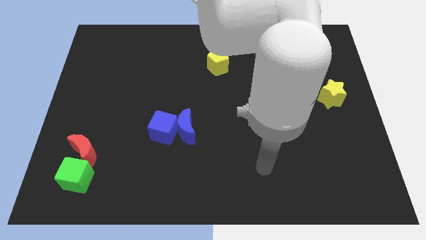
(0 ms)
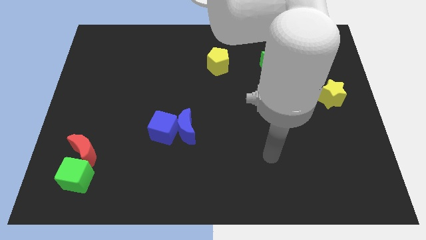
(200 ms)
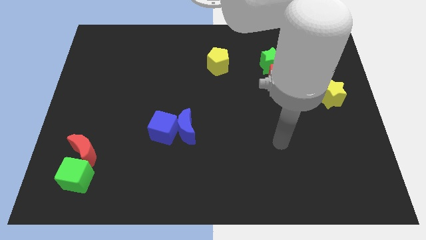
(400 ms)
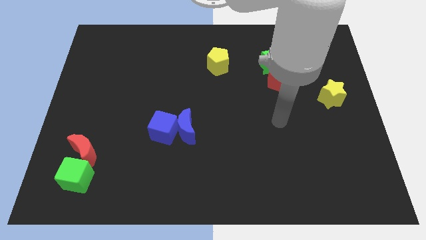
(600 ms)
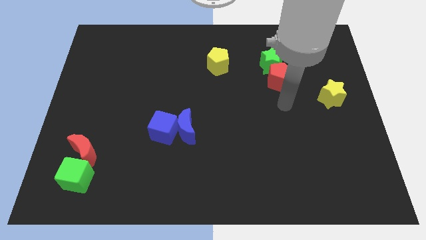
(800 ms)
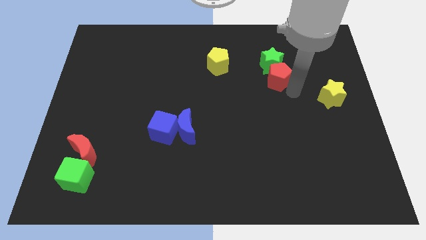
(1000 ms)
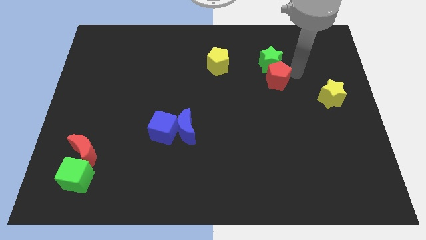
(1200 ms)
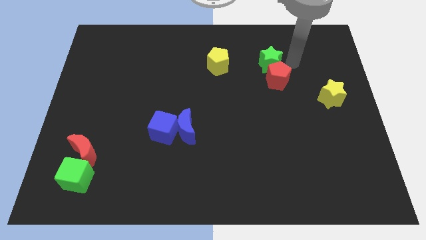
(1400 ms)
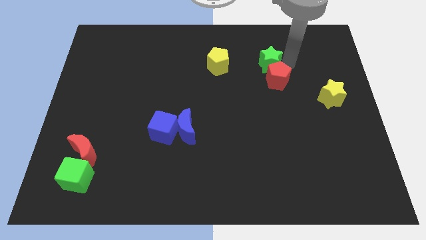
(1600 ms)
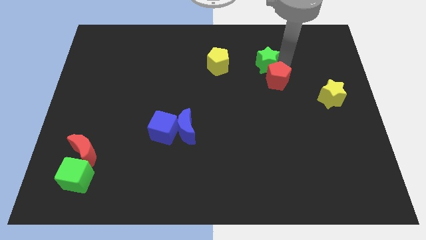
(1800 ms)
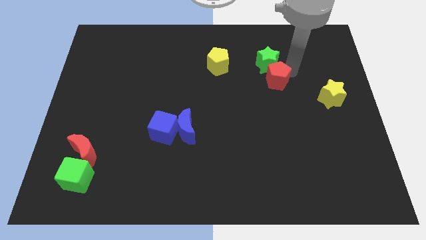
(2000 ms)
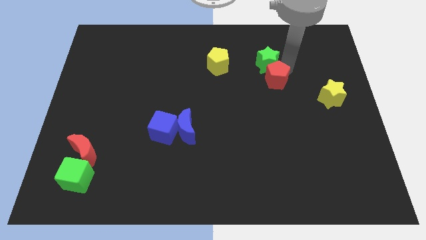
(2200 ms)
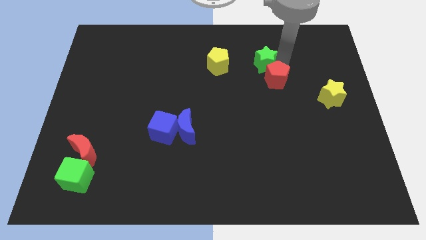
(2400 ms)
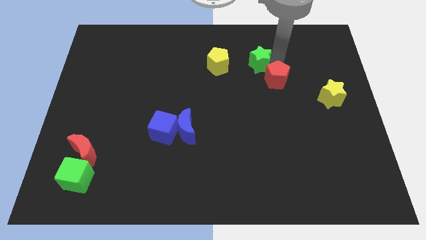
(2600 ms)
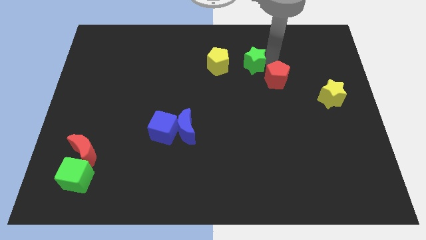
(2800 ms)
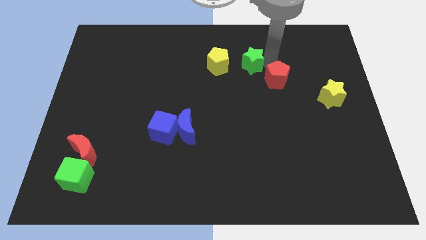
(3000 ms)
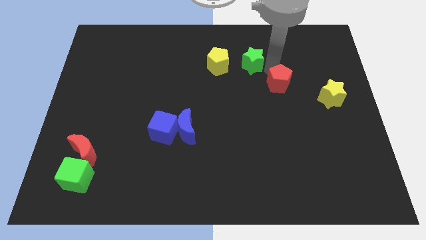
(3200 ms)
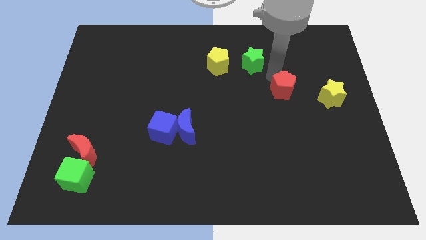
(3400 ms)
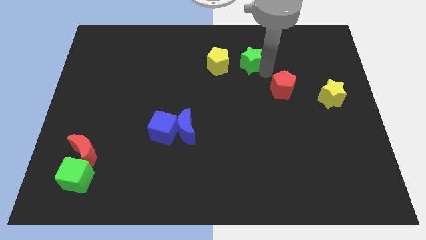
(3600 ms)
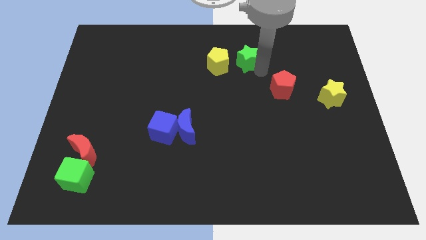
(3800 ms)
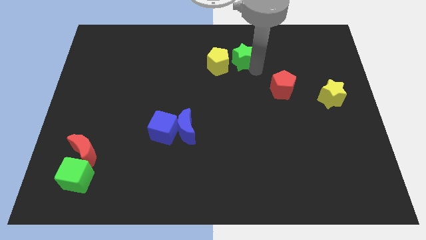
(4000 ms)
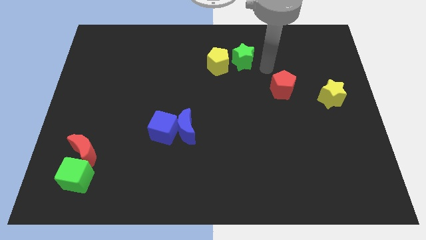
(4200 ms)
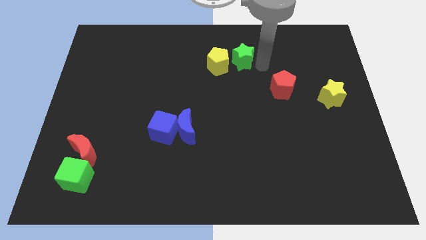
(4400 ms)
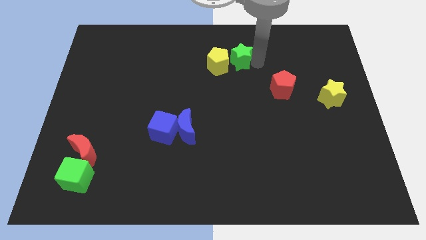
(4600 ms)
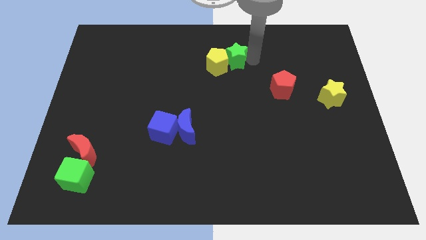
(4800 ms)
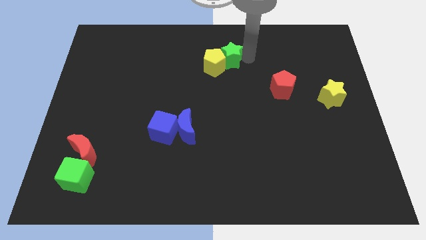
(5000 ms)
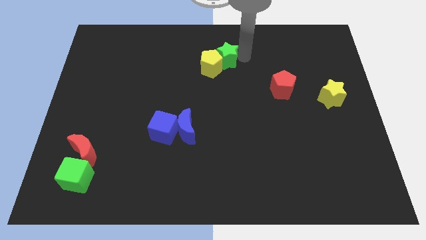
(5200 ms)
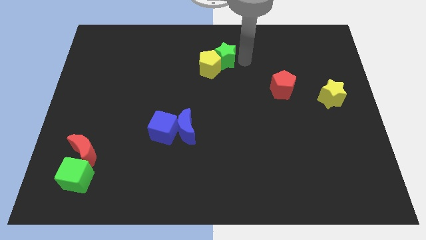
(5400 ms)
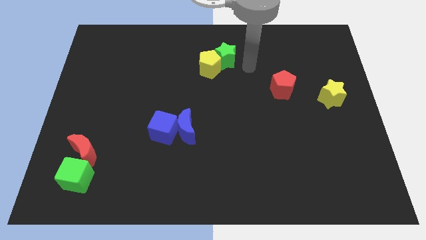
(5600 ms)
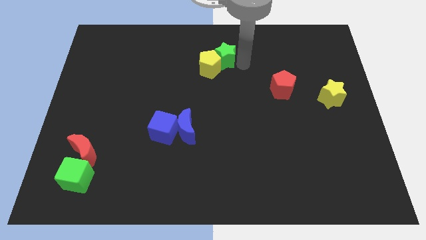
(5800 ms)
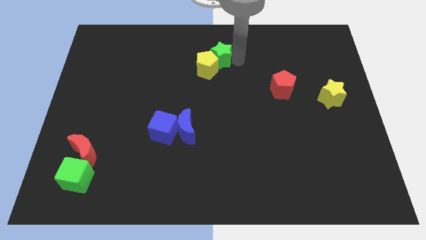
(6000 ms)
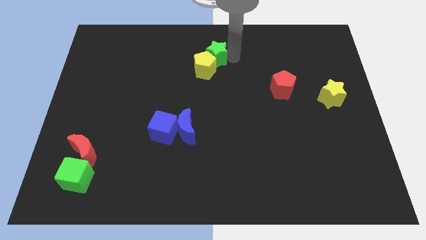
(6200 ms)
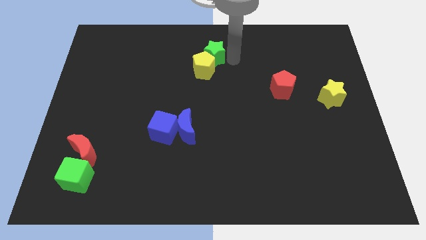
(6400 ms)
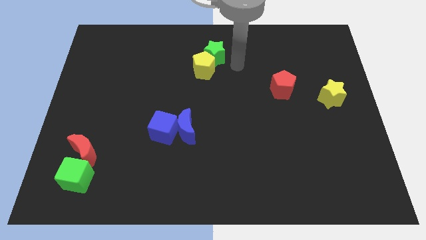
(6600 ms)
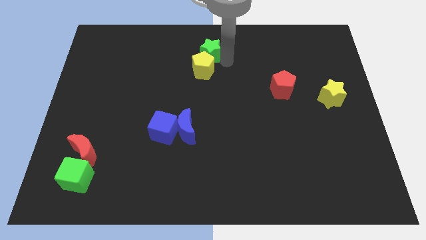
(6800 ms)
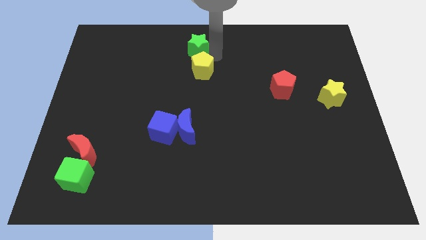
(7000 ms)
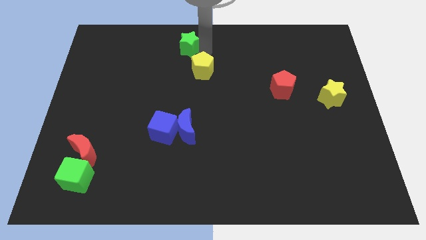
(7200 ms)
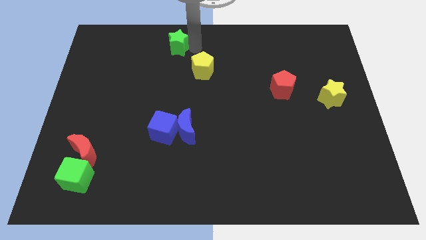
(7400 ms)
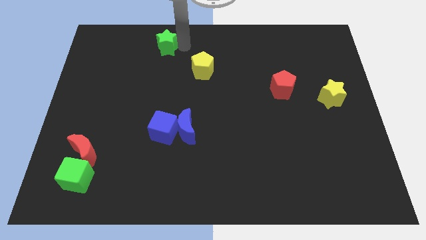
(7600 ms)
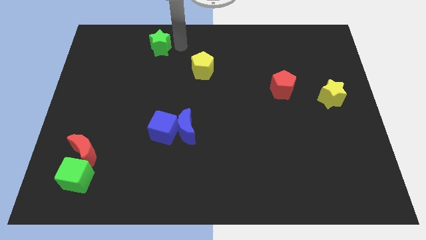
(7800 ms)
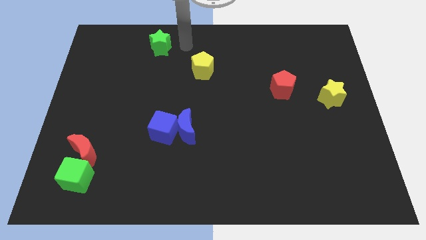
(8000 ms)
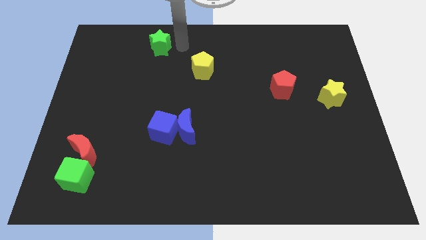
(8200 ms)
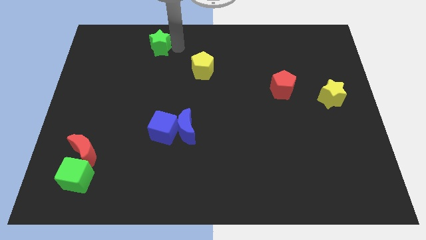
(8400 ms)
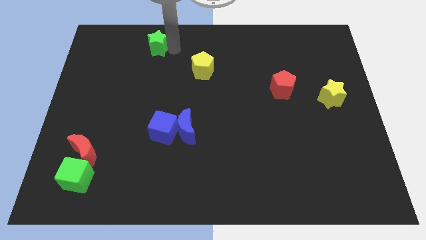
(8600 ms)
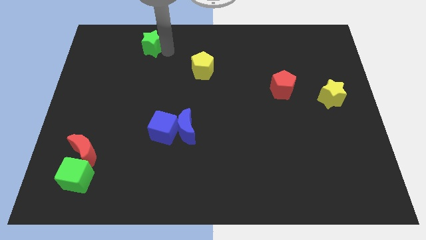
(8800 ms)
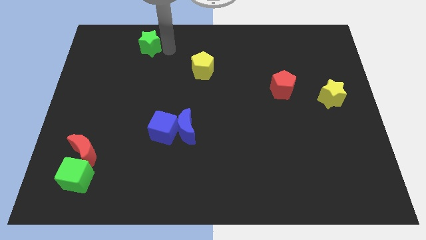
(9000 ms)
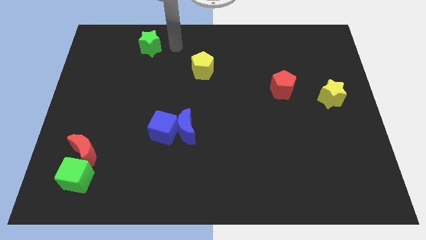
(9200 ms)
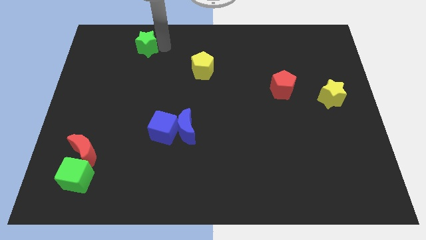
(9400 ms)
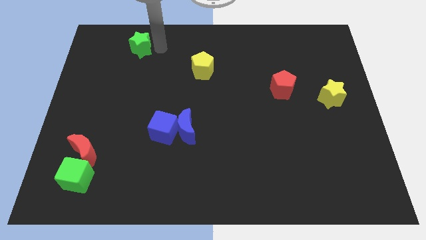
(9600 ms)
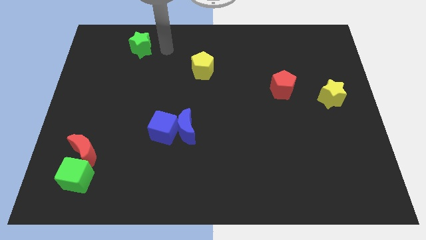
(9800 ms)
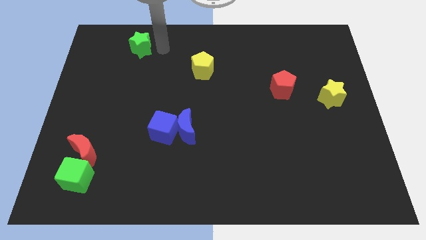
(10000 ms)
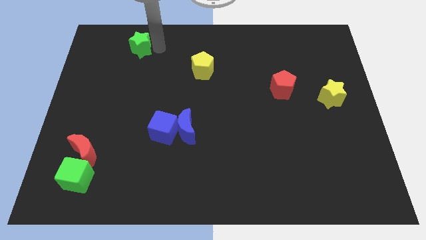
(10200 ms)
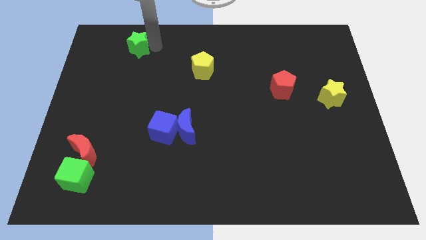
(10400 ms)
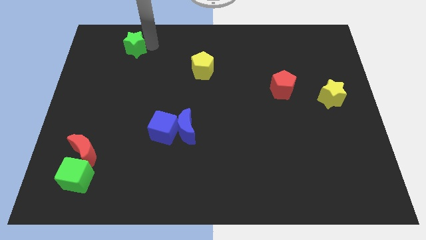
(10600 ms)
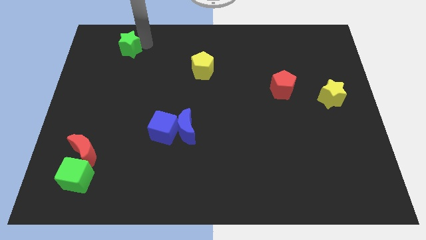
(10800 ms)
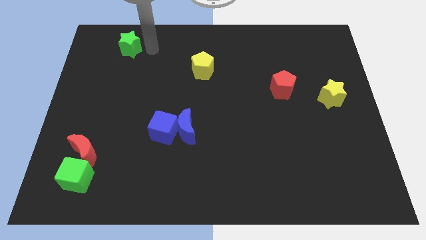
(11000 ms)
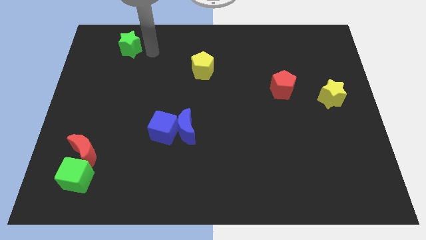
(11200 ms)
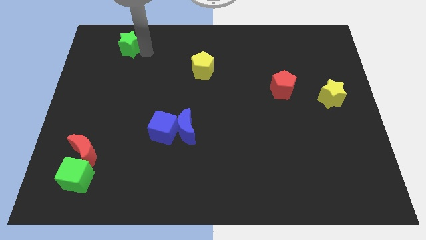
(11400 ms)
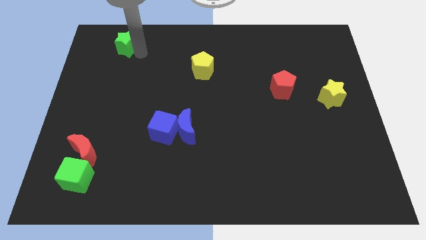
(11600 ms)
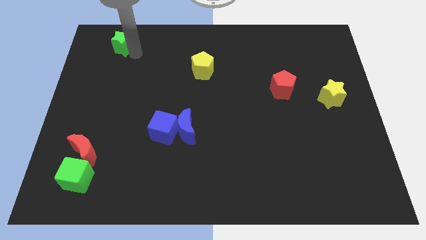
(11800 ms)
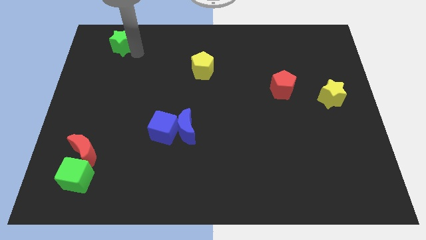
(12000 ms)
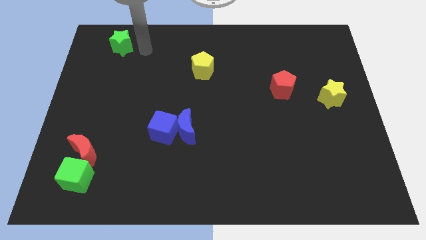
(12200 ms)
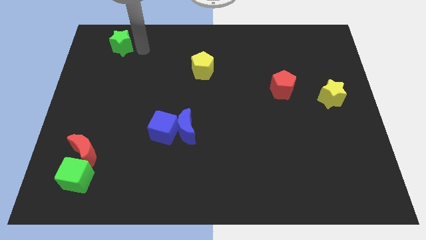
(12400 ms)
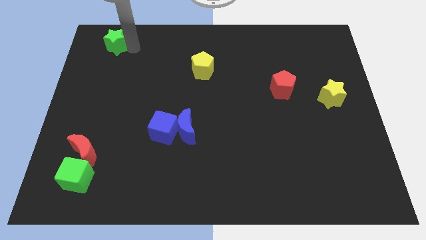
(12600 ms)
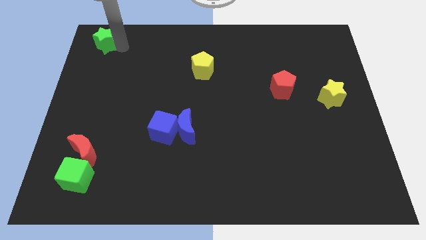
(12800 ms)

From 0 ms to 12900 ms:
put the green star to the top left corner
